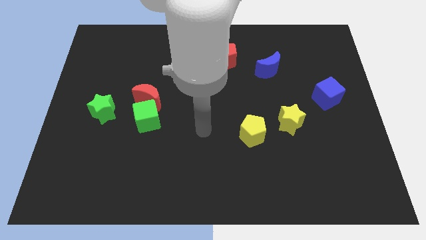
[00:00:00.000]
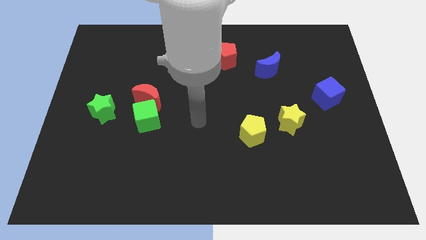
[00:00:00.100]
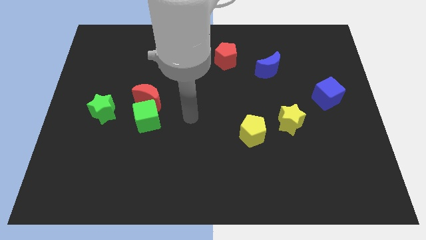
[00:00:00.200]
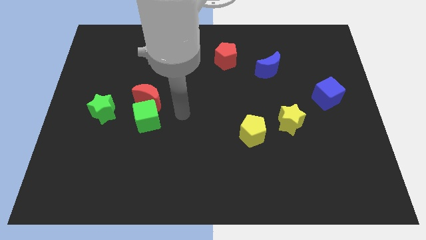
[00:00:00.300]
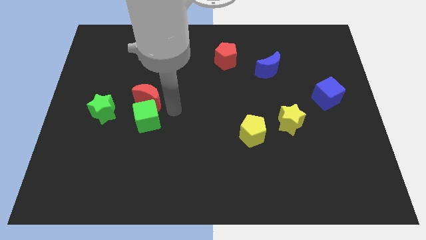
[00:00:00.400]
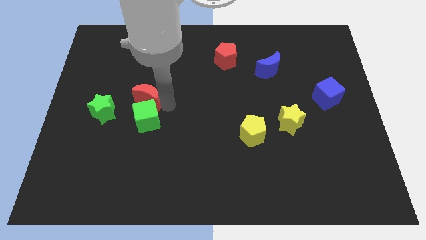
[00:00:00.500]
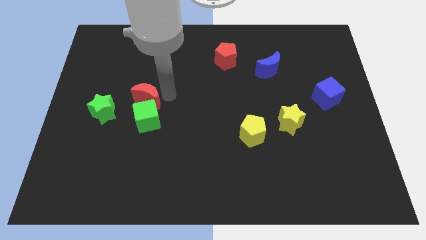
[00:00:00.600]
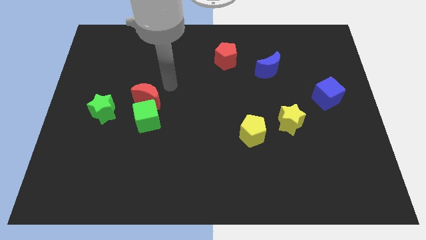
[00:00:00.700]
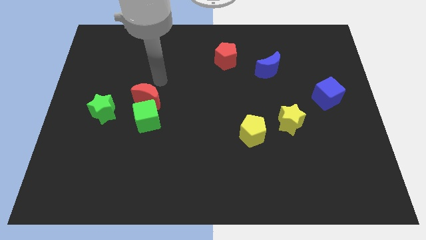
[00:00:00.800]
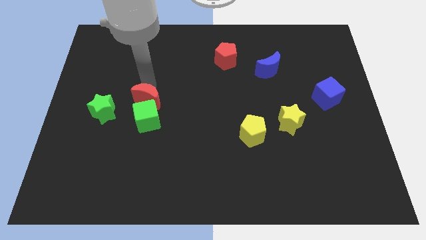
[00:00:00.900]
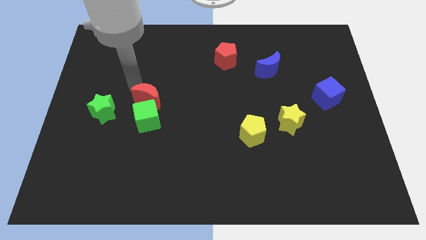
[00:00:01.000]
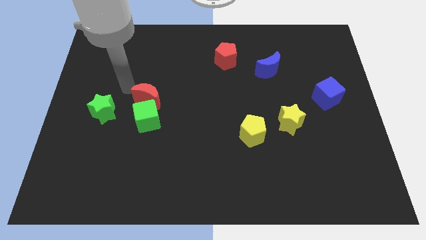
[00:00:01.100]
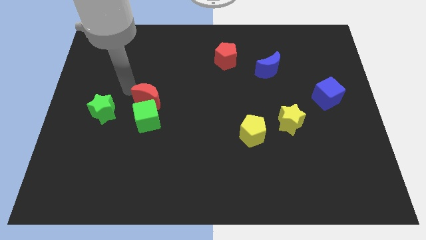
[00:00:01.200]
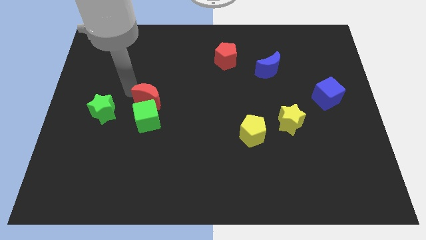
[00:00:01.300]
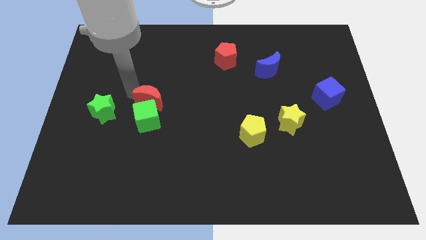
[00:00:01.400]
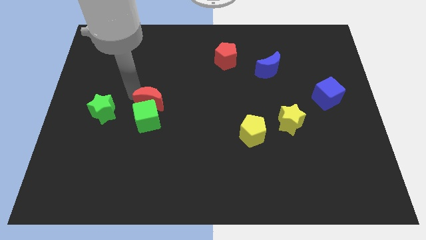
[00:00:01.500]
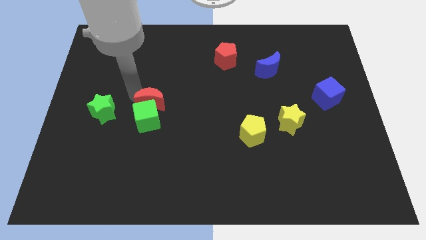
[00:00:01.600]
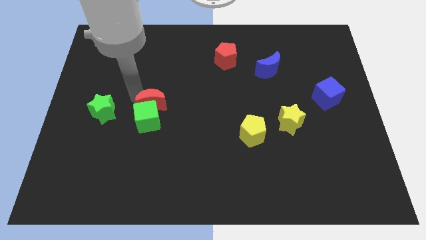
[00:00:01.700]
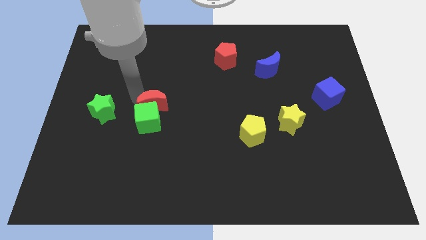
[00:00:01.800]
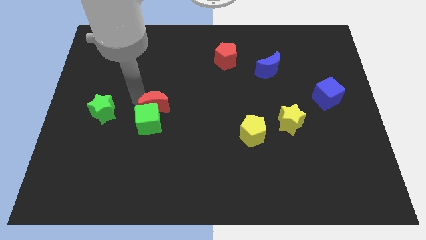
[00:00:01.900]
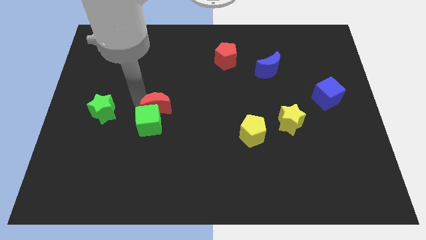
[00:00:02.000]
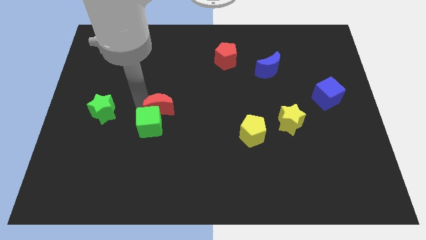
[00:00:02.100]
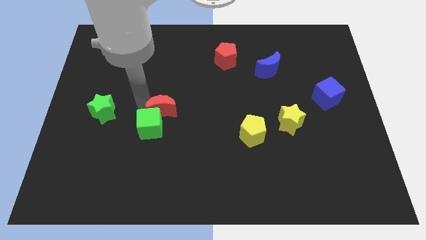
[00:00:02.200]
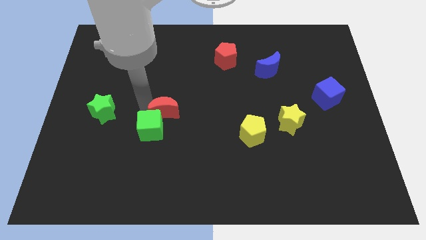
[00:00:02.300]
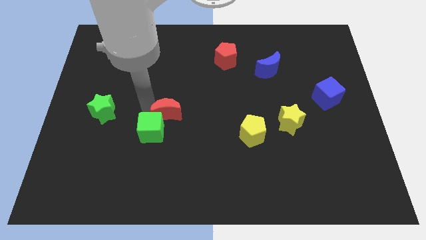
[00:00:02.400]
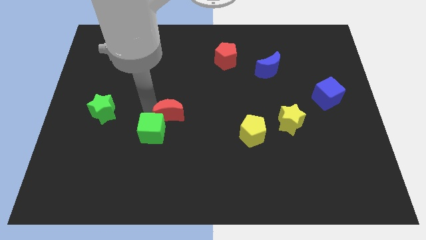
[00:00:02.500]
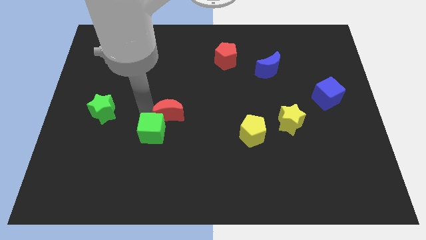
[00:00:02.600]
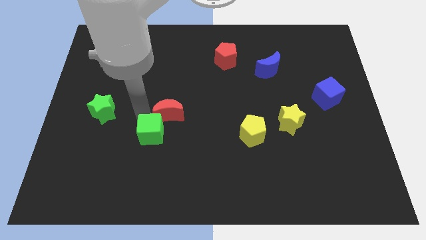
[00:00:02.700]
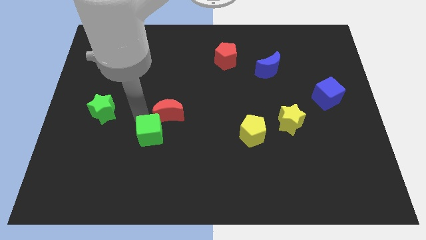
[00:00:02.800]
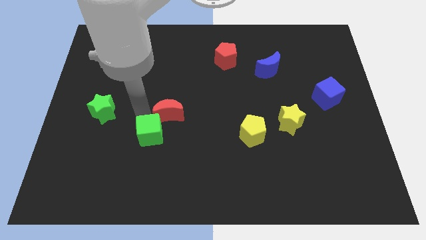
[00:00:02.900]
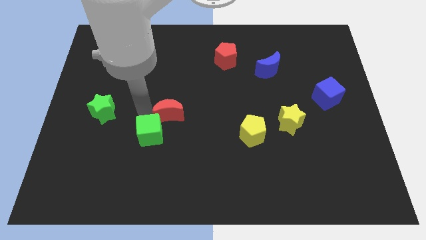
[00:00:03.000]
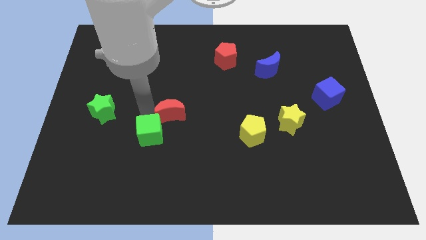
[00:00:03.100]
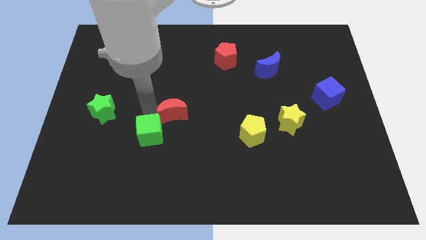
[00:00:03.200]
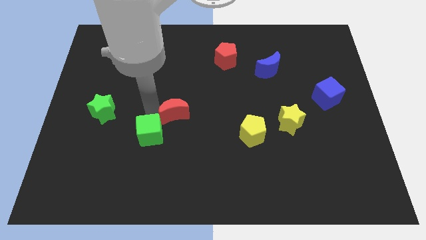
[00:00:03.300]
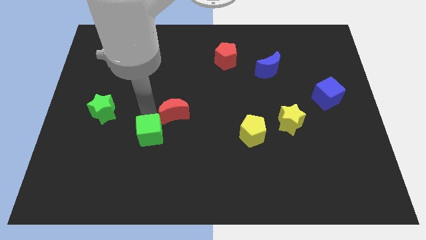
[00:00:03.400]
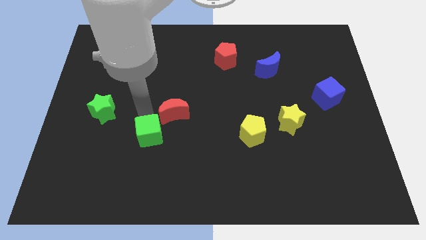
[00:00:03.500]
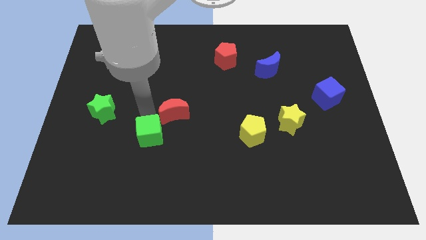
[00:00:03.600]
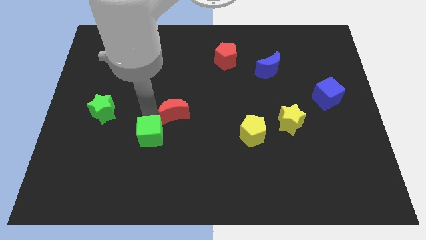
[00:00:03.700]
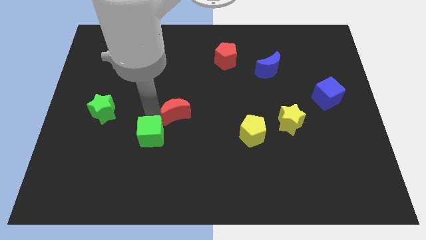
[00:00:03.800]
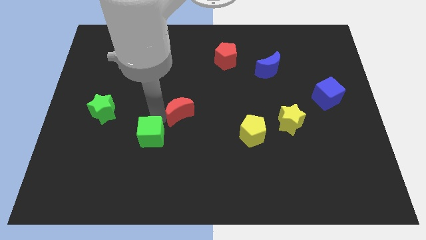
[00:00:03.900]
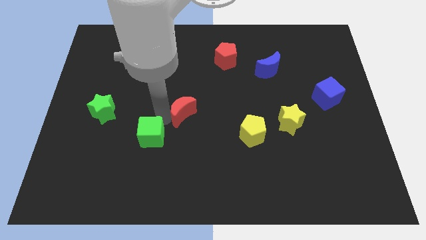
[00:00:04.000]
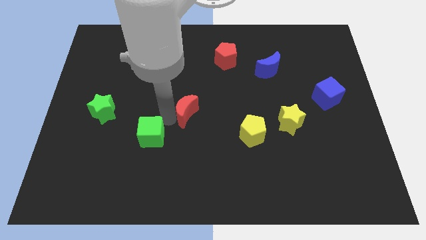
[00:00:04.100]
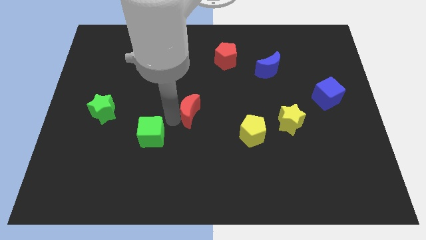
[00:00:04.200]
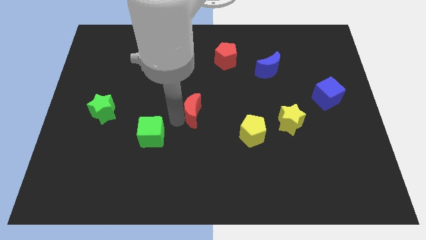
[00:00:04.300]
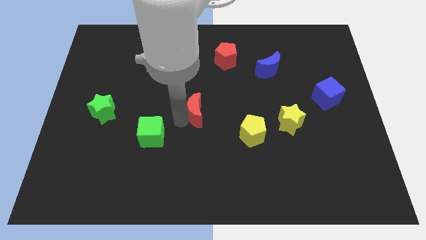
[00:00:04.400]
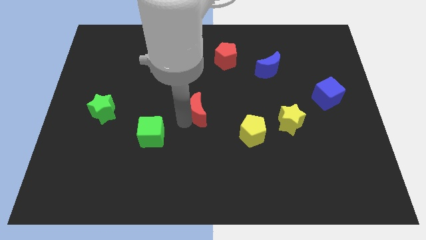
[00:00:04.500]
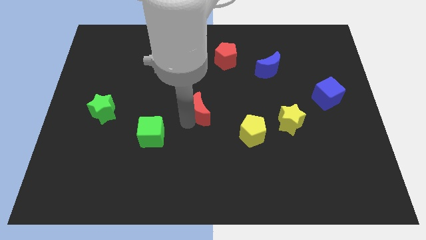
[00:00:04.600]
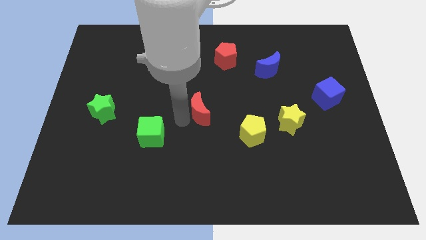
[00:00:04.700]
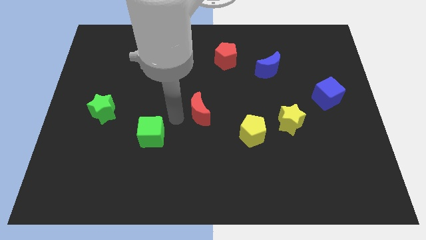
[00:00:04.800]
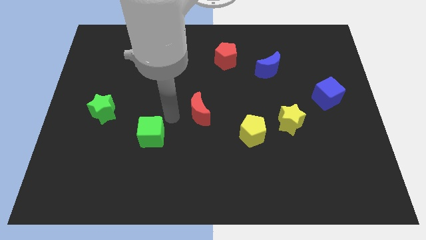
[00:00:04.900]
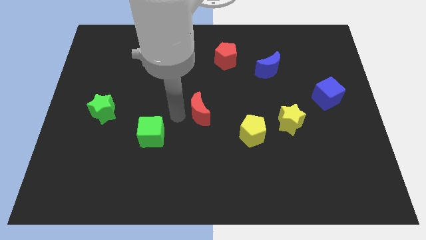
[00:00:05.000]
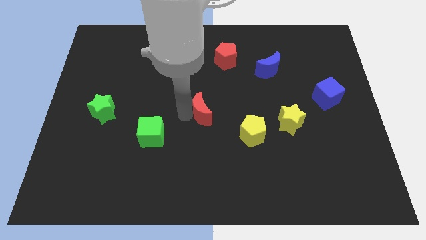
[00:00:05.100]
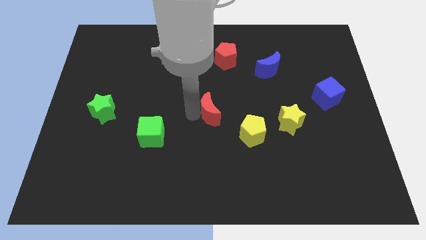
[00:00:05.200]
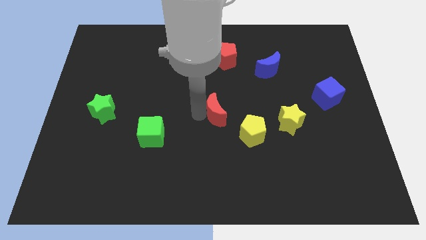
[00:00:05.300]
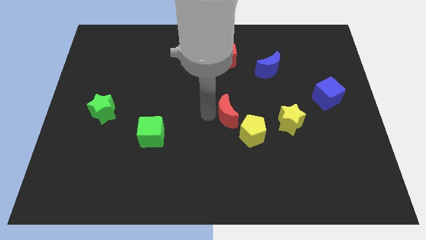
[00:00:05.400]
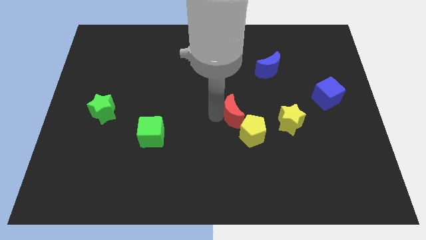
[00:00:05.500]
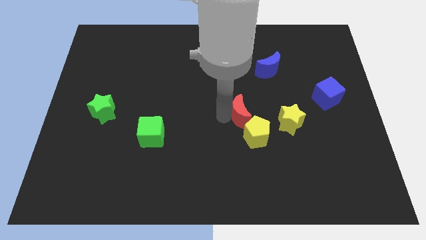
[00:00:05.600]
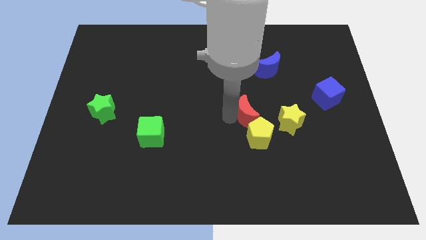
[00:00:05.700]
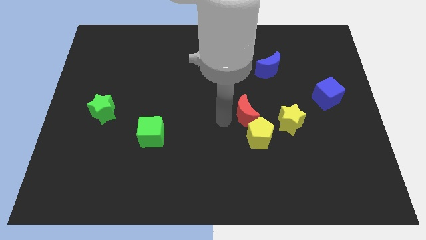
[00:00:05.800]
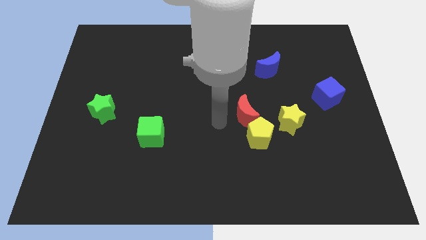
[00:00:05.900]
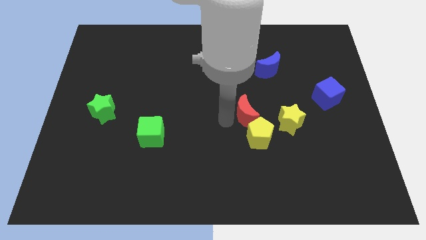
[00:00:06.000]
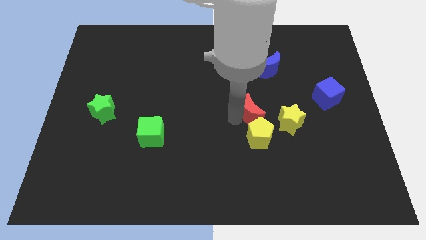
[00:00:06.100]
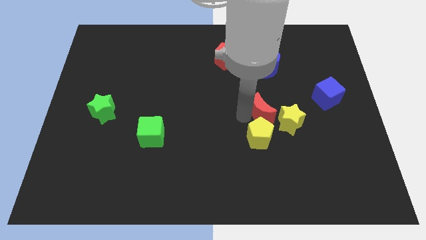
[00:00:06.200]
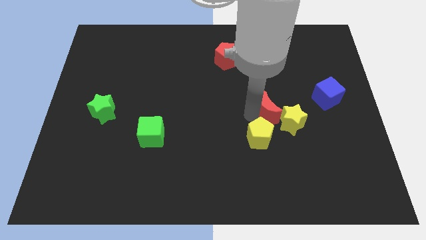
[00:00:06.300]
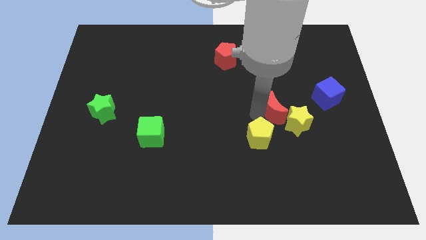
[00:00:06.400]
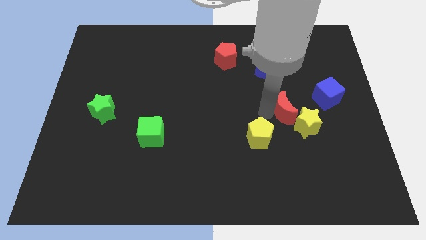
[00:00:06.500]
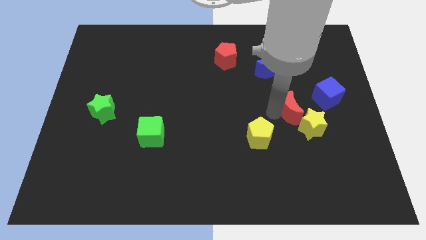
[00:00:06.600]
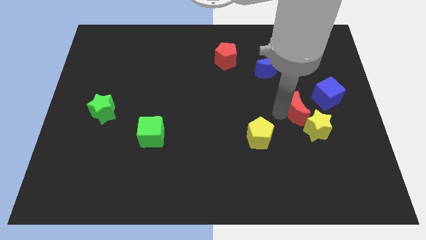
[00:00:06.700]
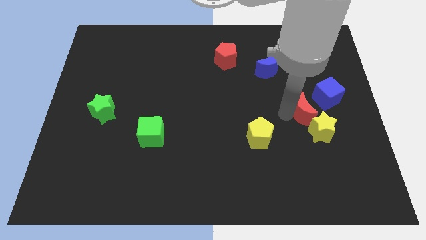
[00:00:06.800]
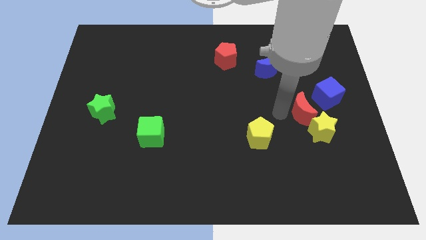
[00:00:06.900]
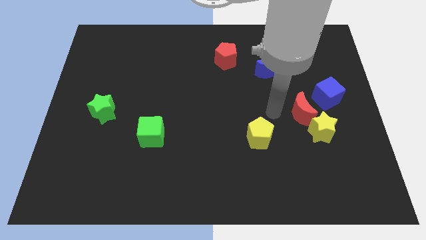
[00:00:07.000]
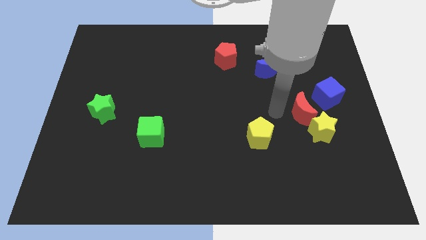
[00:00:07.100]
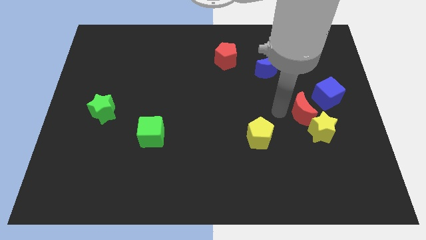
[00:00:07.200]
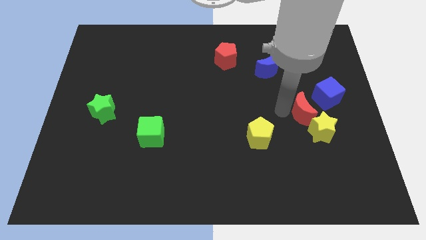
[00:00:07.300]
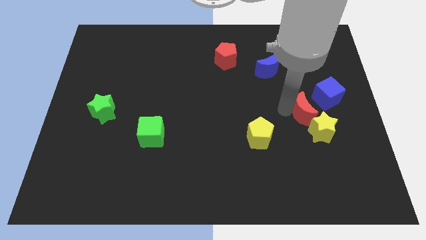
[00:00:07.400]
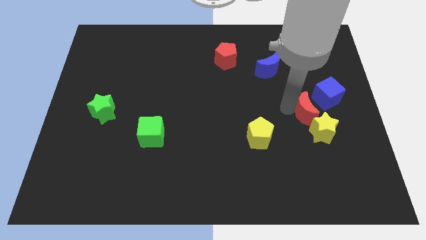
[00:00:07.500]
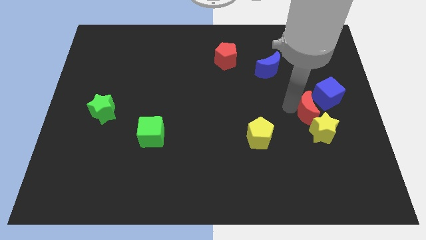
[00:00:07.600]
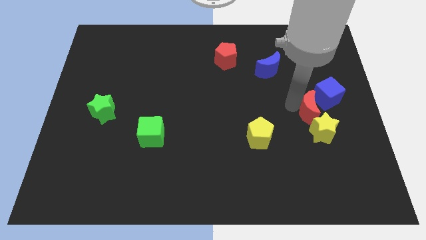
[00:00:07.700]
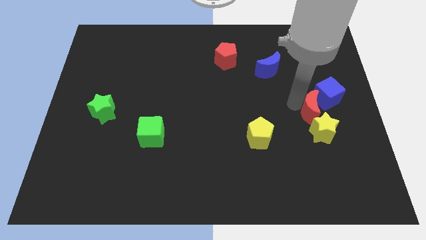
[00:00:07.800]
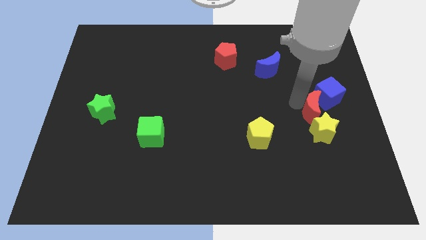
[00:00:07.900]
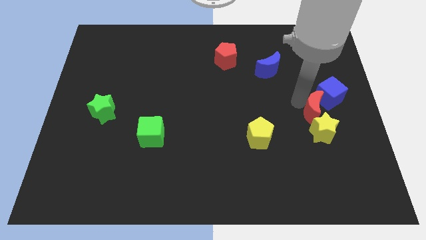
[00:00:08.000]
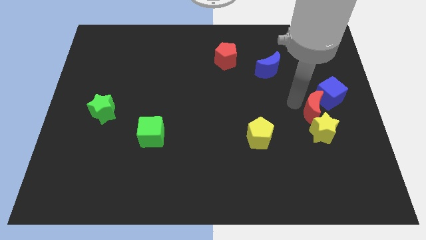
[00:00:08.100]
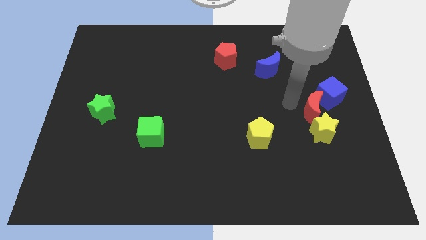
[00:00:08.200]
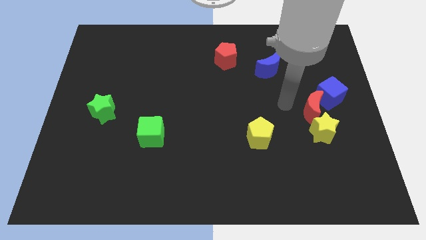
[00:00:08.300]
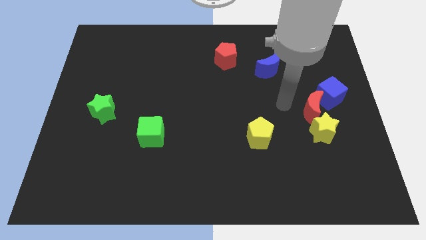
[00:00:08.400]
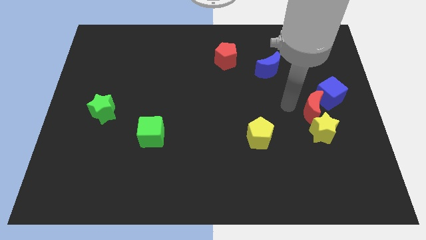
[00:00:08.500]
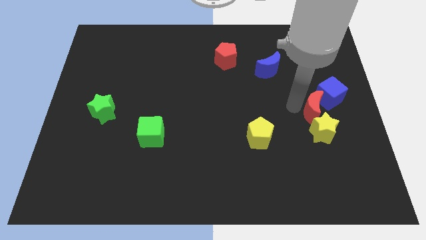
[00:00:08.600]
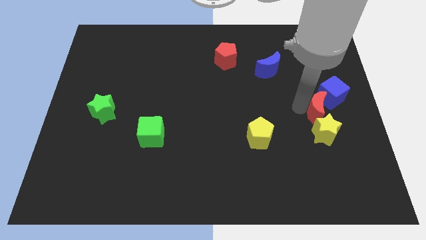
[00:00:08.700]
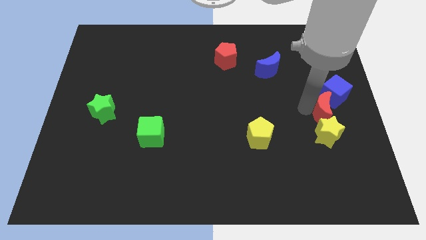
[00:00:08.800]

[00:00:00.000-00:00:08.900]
put the red moon to the right side
